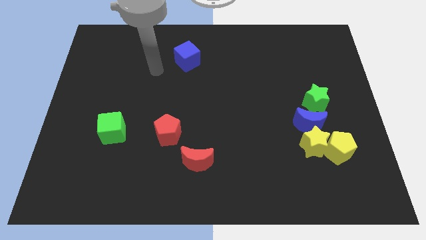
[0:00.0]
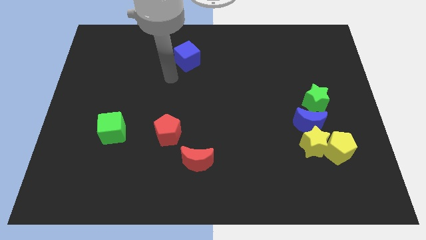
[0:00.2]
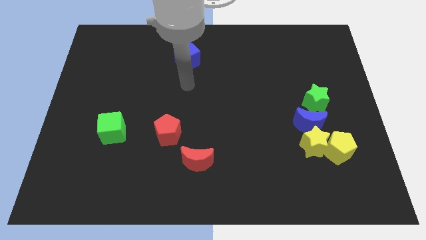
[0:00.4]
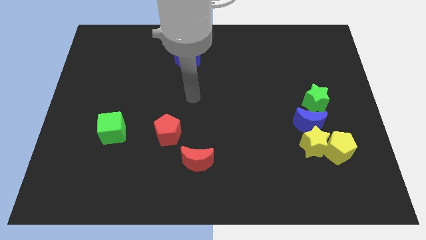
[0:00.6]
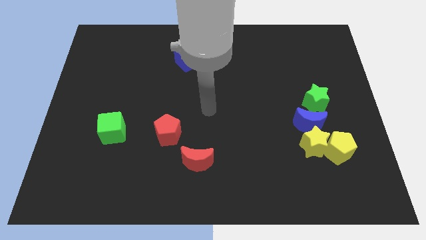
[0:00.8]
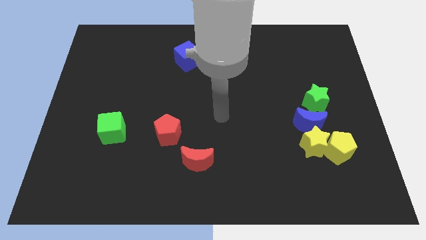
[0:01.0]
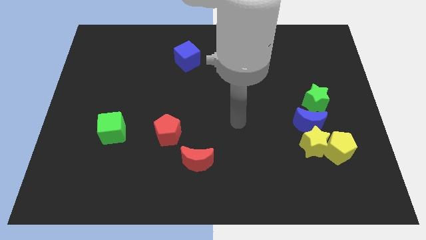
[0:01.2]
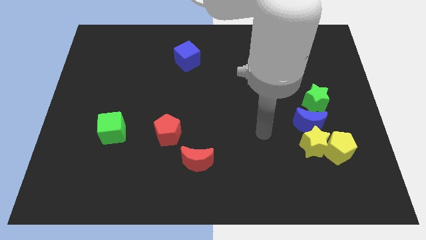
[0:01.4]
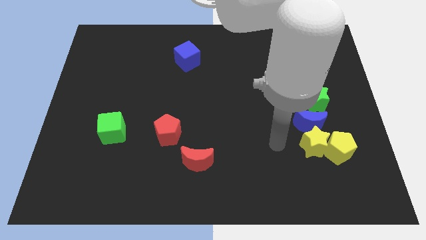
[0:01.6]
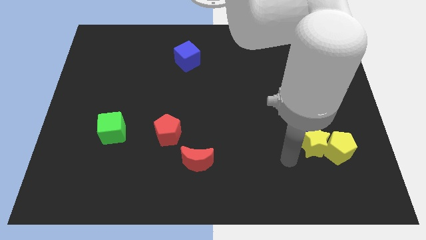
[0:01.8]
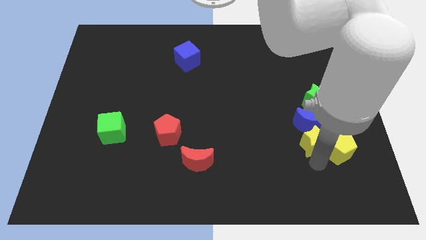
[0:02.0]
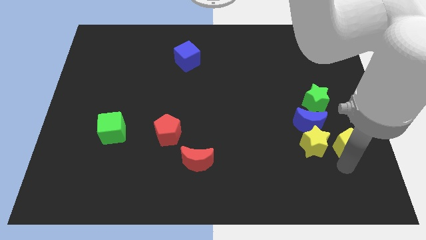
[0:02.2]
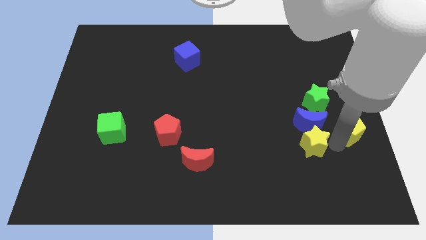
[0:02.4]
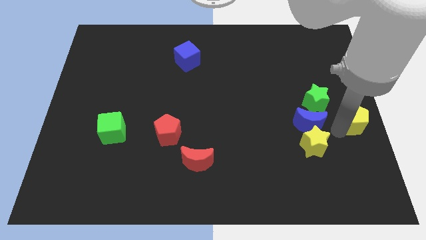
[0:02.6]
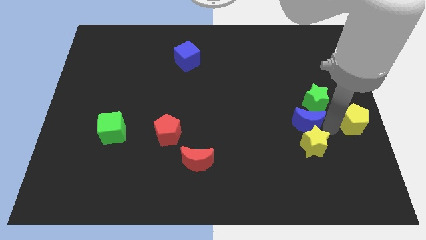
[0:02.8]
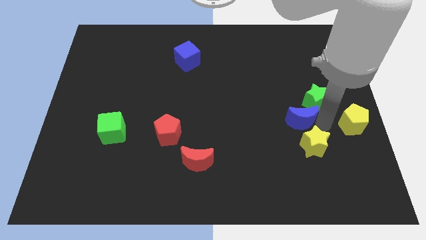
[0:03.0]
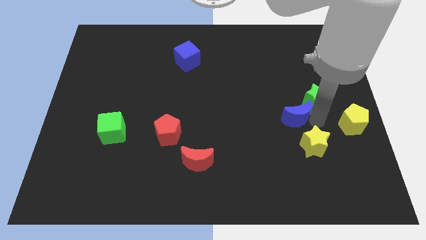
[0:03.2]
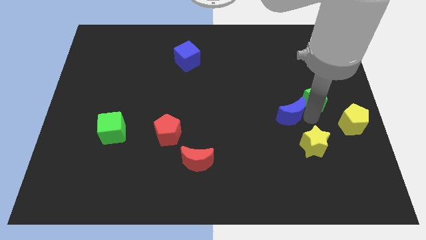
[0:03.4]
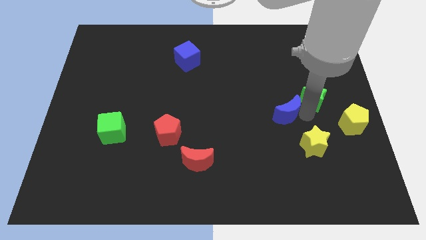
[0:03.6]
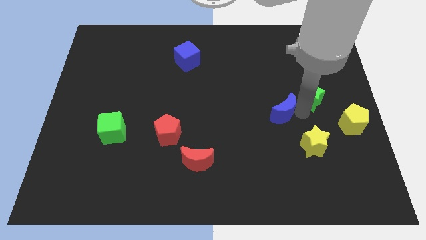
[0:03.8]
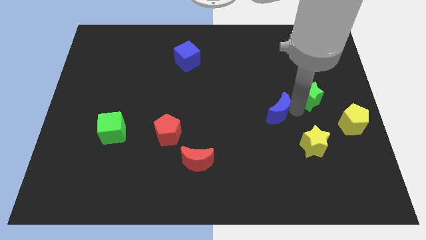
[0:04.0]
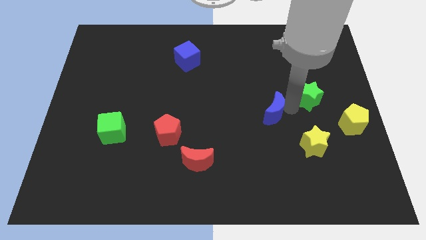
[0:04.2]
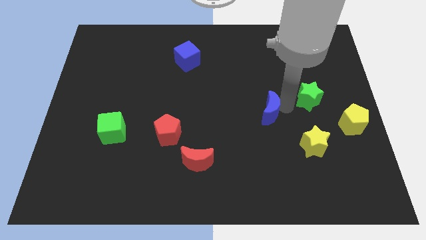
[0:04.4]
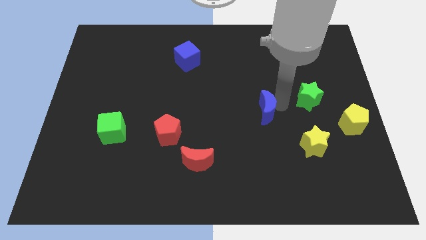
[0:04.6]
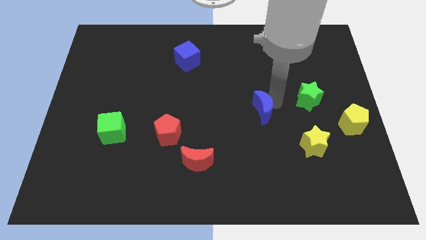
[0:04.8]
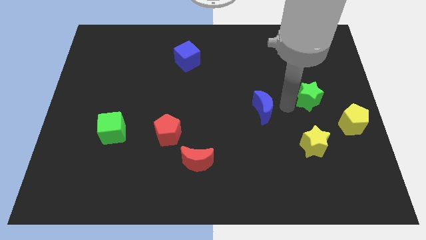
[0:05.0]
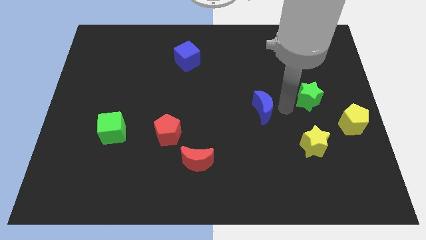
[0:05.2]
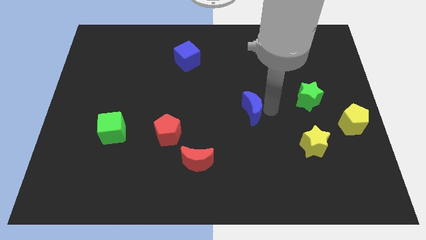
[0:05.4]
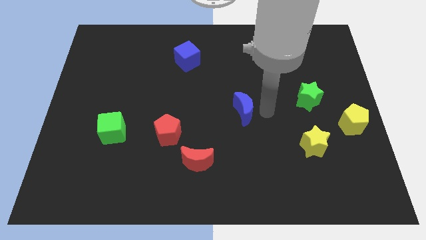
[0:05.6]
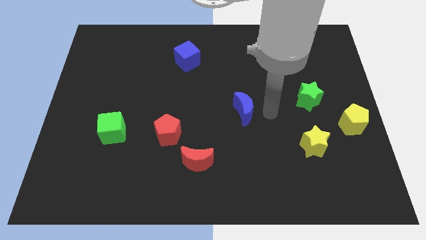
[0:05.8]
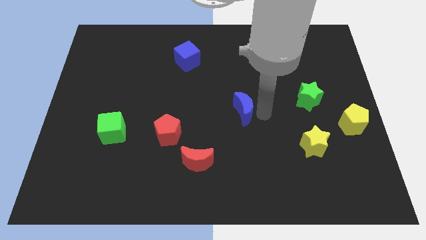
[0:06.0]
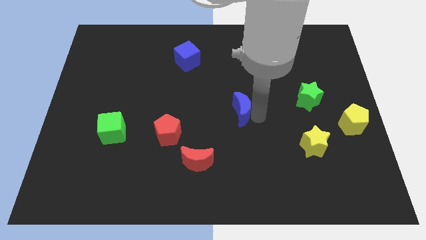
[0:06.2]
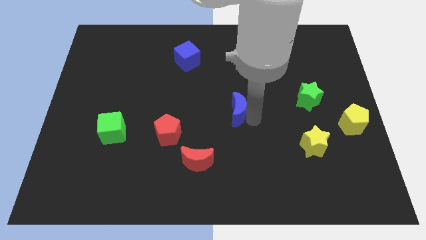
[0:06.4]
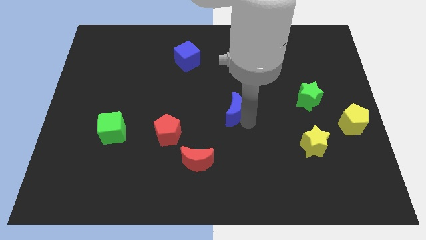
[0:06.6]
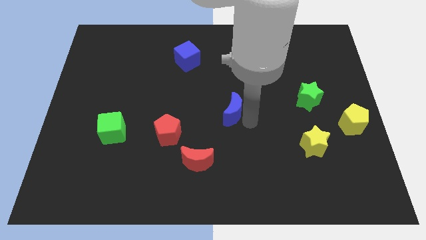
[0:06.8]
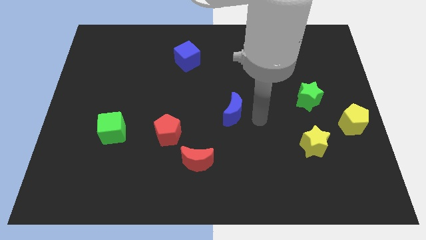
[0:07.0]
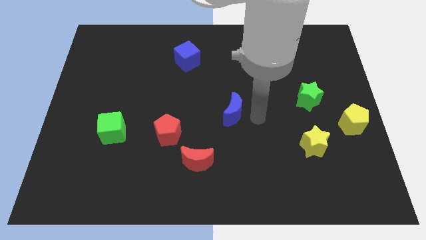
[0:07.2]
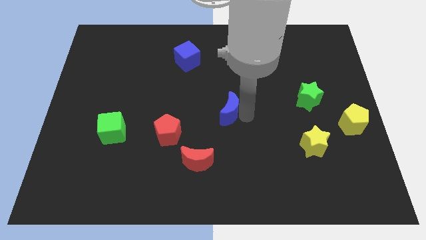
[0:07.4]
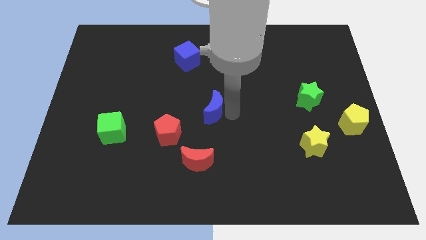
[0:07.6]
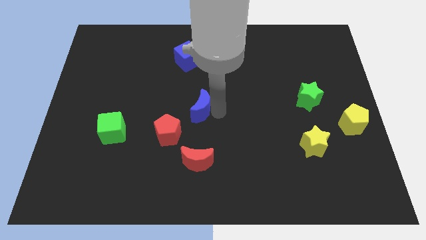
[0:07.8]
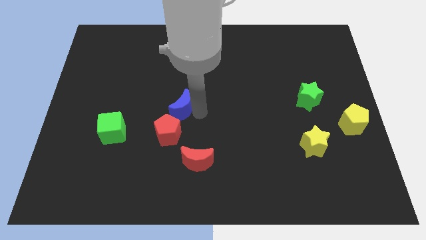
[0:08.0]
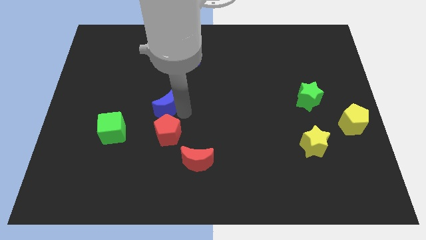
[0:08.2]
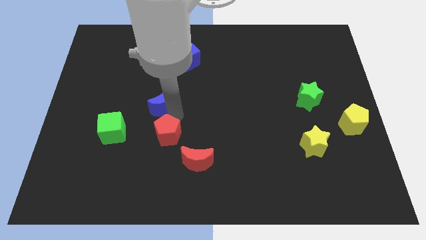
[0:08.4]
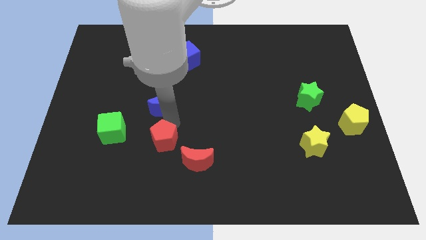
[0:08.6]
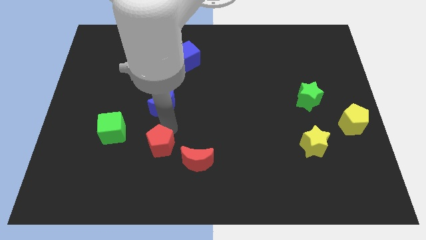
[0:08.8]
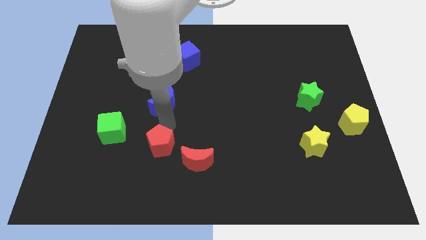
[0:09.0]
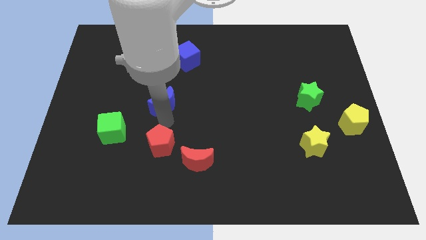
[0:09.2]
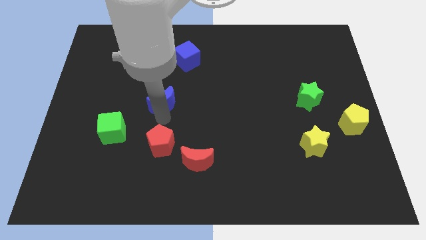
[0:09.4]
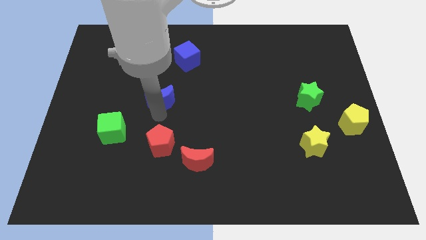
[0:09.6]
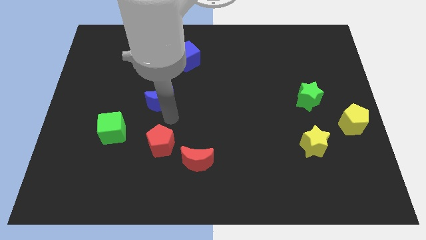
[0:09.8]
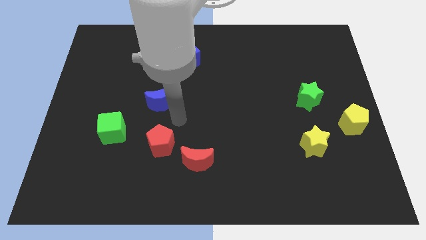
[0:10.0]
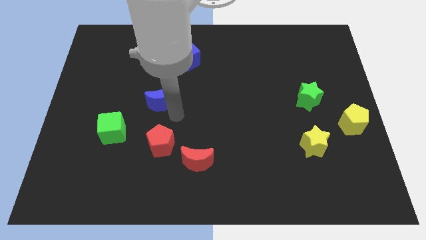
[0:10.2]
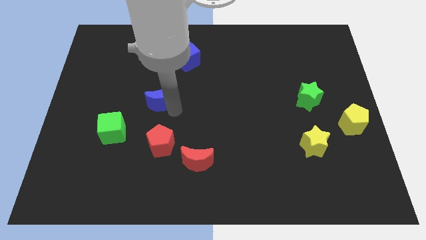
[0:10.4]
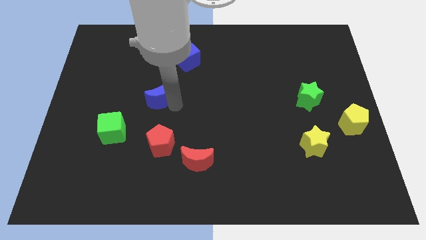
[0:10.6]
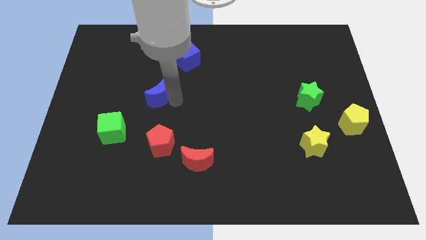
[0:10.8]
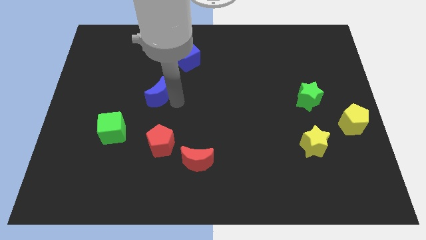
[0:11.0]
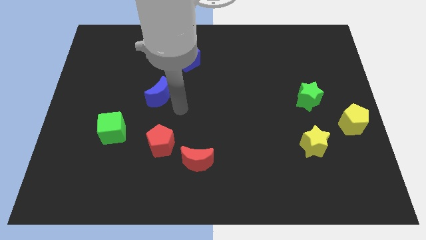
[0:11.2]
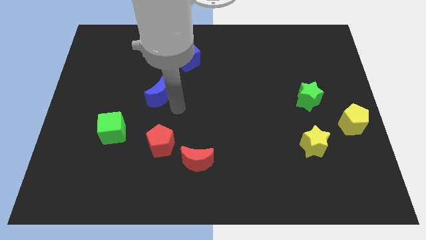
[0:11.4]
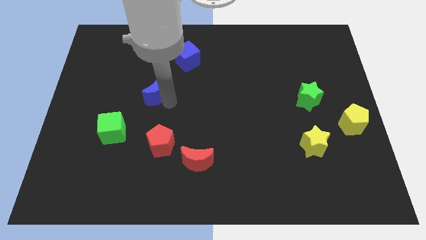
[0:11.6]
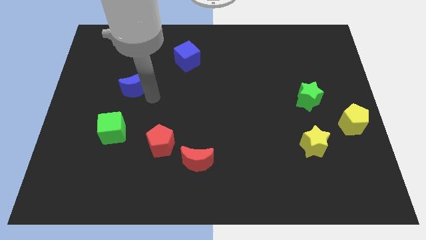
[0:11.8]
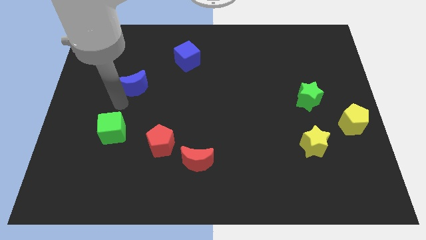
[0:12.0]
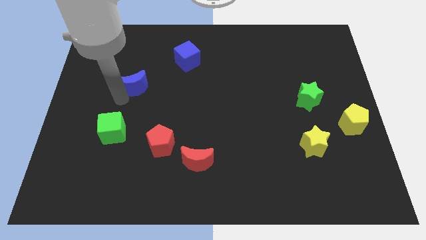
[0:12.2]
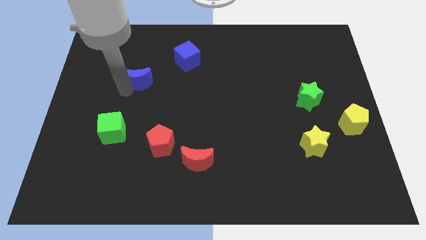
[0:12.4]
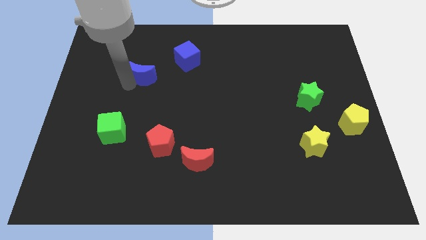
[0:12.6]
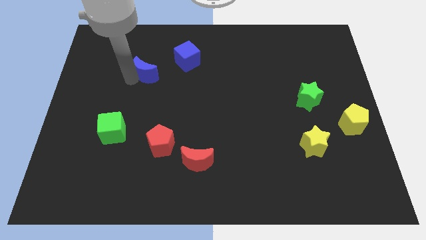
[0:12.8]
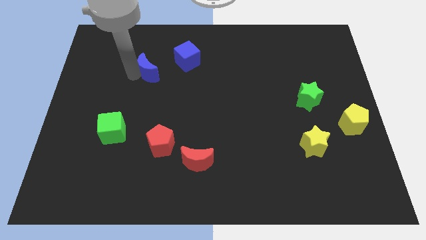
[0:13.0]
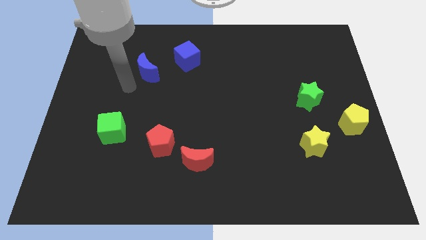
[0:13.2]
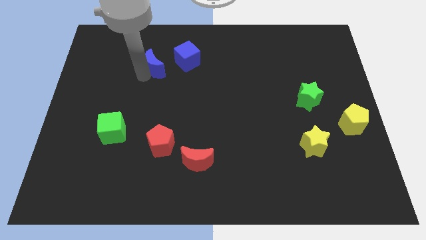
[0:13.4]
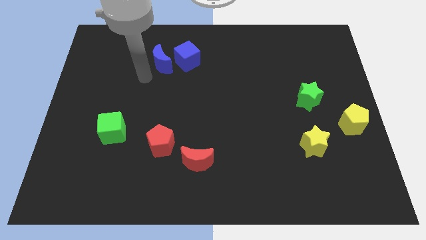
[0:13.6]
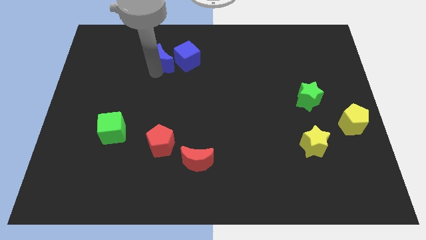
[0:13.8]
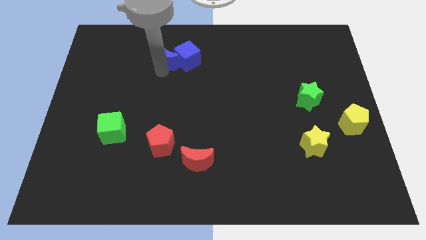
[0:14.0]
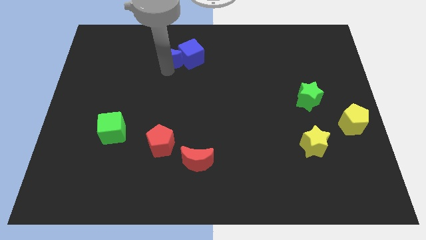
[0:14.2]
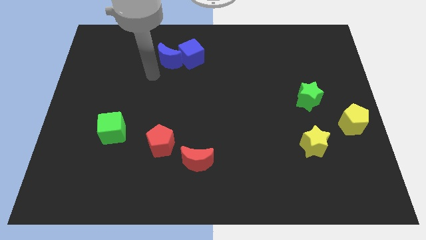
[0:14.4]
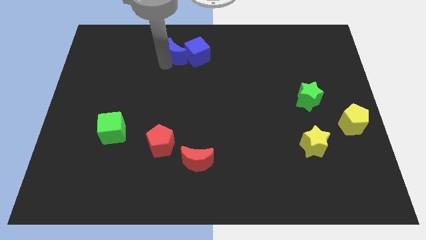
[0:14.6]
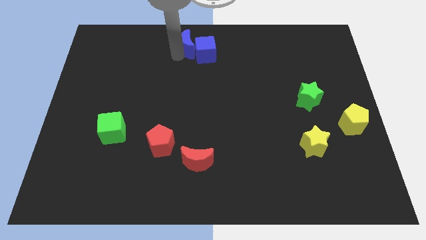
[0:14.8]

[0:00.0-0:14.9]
push the blue moon to the top side
